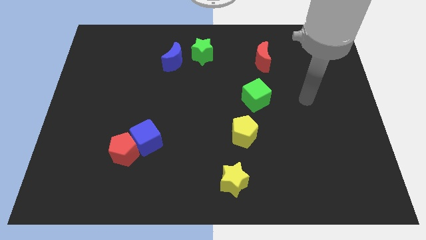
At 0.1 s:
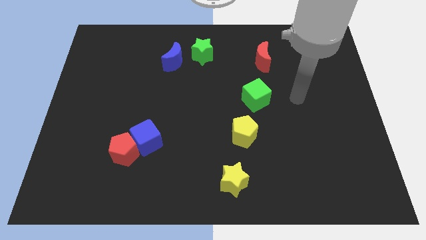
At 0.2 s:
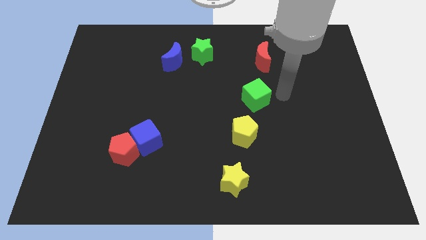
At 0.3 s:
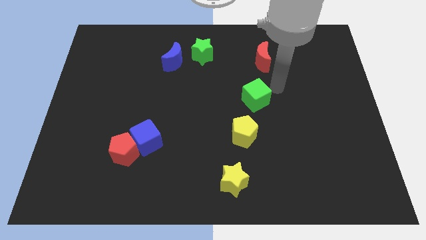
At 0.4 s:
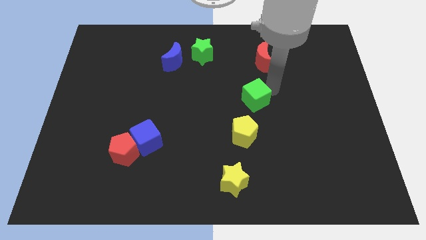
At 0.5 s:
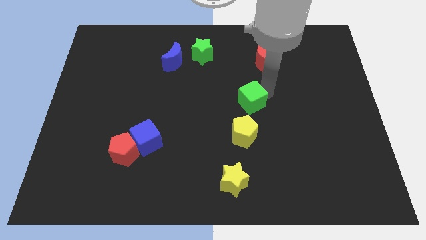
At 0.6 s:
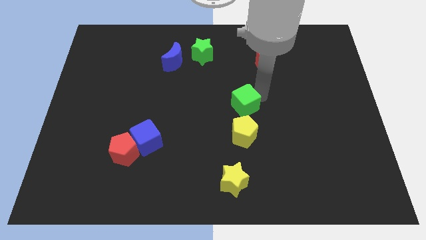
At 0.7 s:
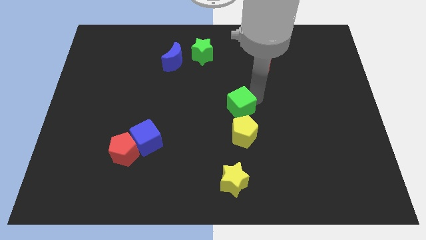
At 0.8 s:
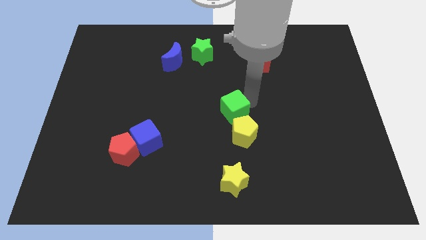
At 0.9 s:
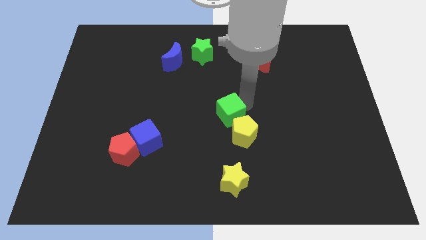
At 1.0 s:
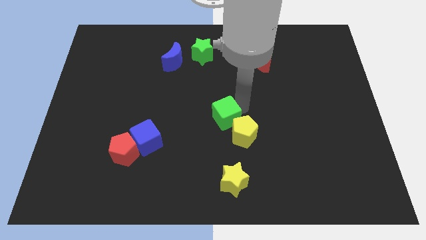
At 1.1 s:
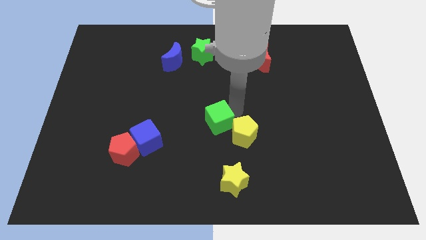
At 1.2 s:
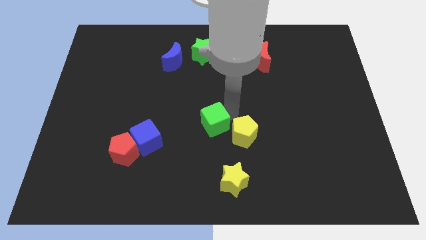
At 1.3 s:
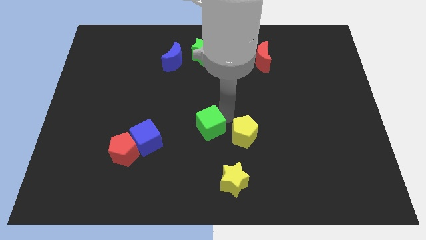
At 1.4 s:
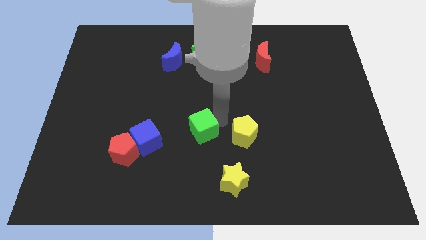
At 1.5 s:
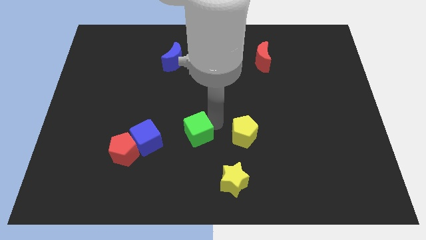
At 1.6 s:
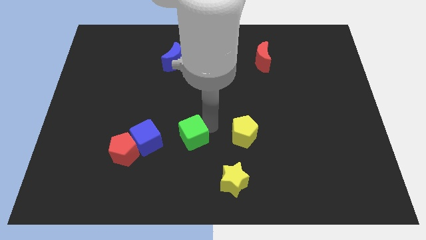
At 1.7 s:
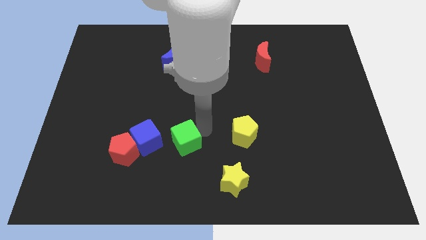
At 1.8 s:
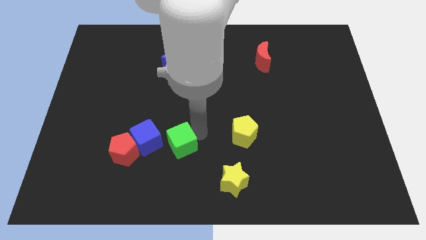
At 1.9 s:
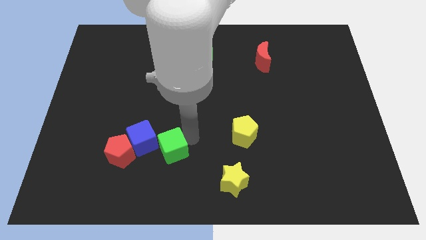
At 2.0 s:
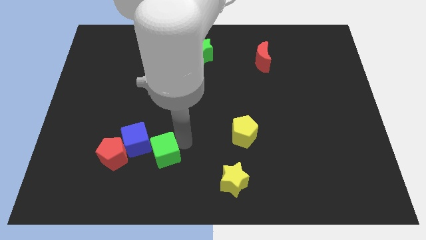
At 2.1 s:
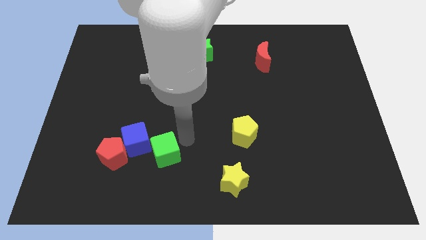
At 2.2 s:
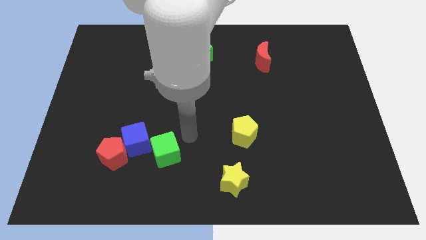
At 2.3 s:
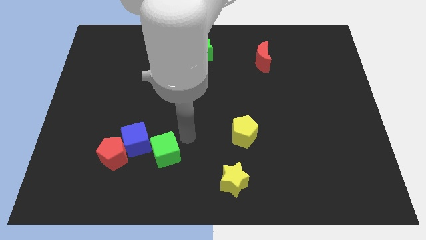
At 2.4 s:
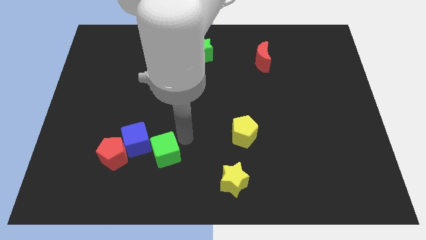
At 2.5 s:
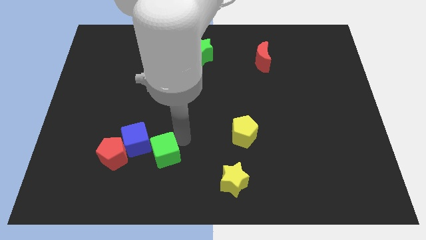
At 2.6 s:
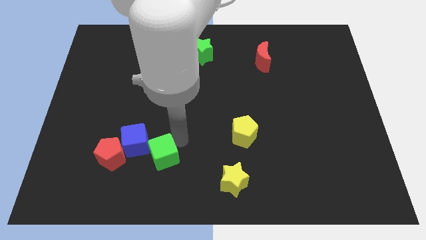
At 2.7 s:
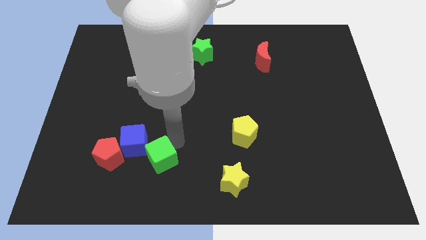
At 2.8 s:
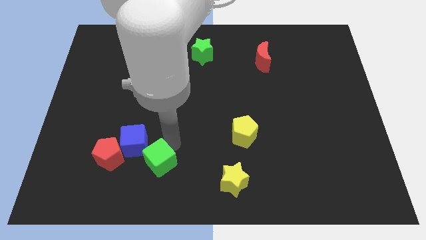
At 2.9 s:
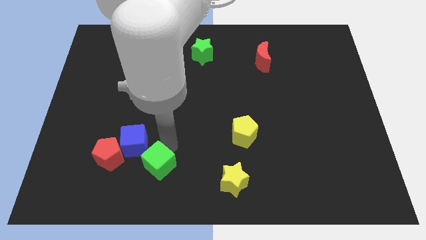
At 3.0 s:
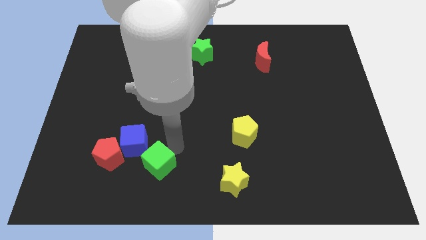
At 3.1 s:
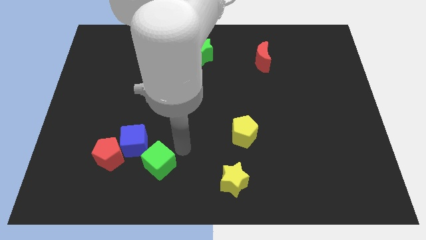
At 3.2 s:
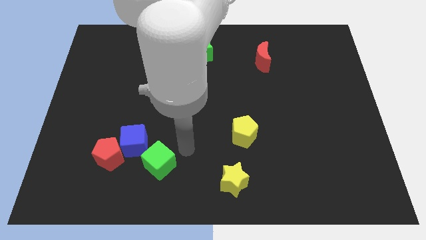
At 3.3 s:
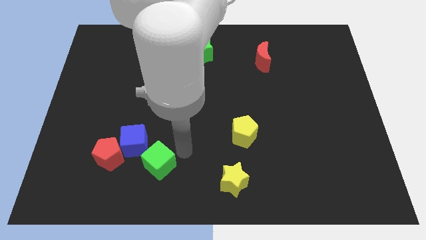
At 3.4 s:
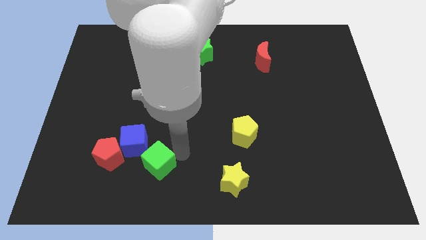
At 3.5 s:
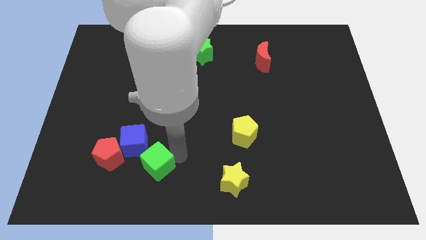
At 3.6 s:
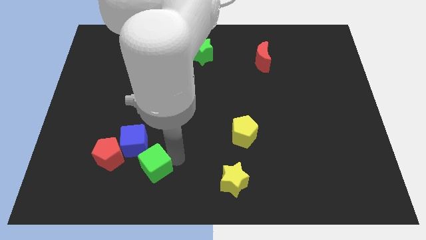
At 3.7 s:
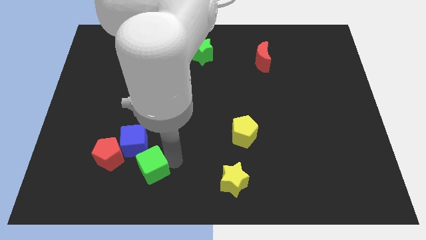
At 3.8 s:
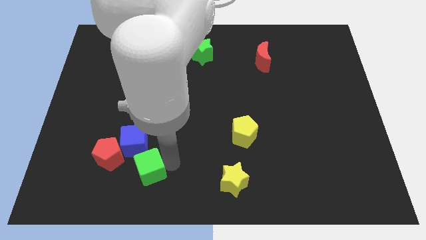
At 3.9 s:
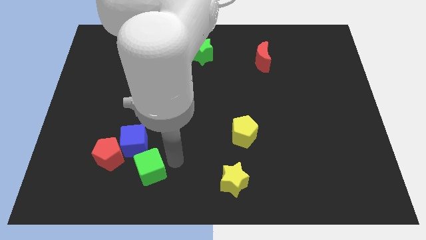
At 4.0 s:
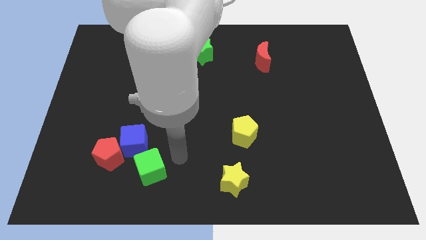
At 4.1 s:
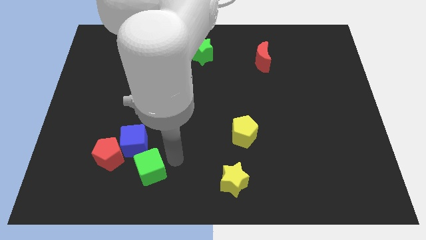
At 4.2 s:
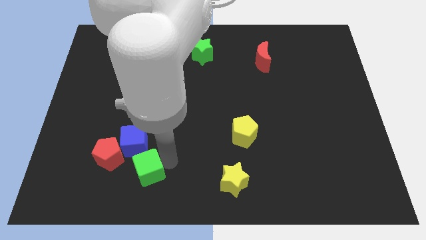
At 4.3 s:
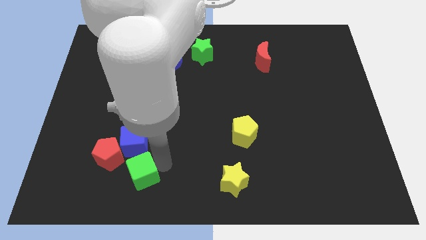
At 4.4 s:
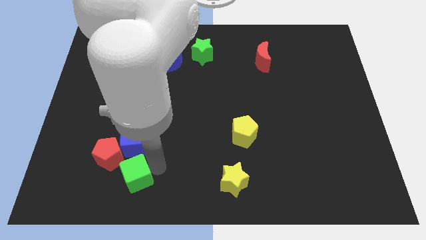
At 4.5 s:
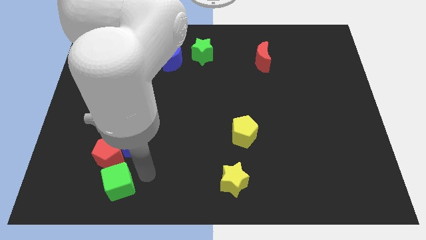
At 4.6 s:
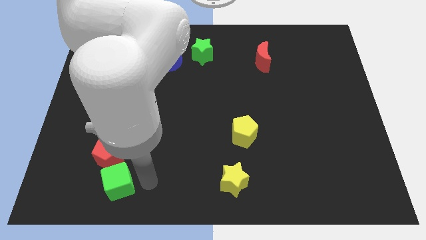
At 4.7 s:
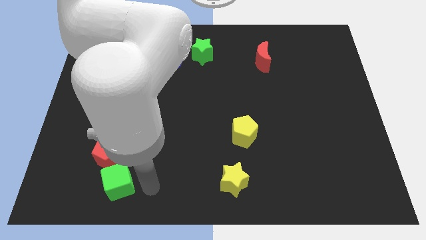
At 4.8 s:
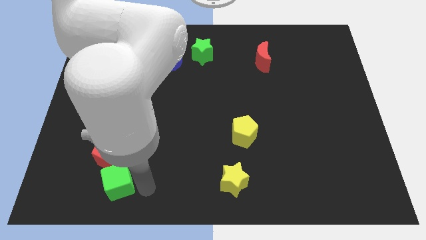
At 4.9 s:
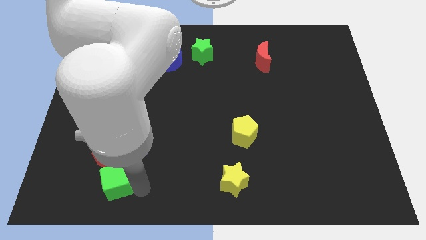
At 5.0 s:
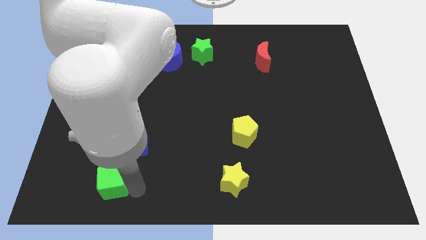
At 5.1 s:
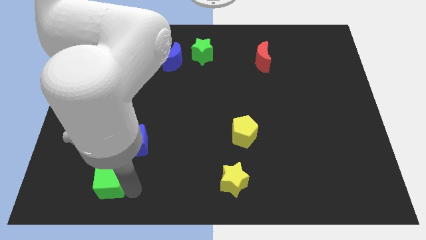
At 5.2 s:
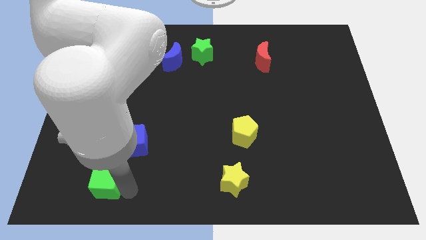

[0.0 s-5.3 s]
put the green cube to the bottom left of the red pentagon

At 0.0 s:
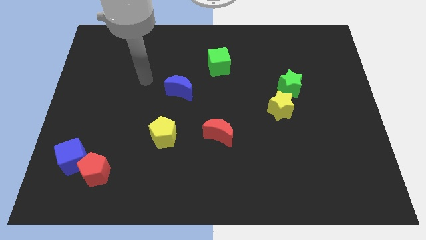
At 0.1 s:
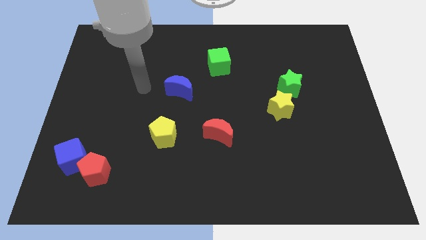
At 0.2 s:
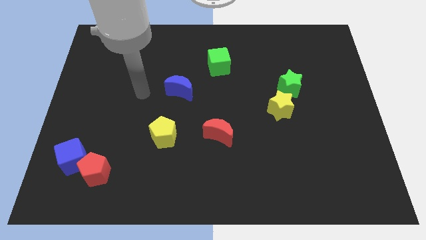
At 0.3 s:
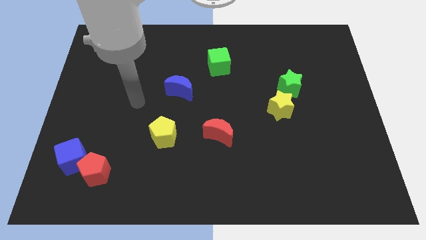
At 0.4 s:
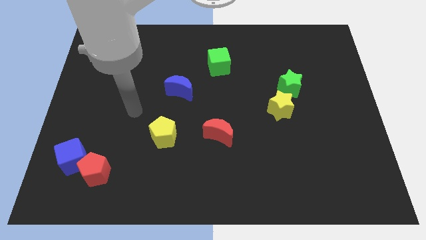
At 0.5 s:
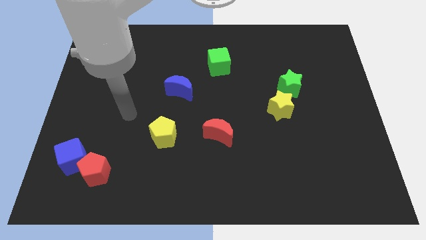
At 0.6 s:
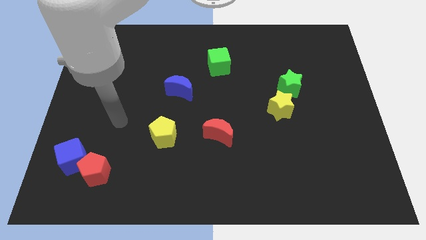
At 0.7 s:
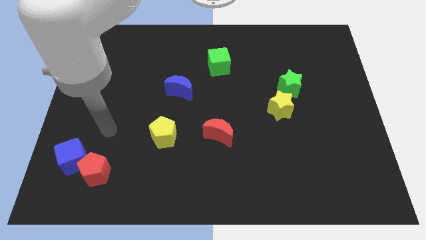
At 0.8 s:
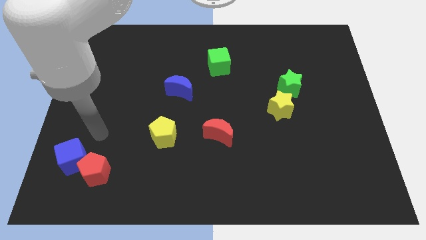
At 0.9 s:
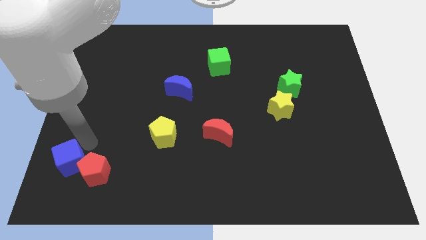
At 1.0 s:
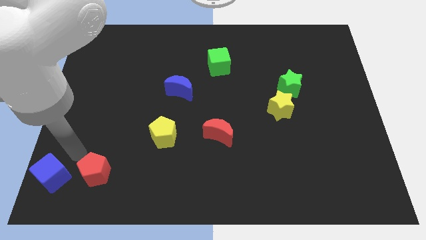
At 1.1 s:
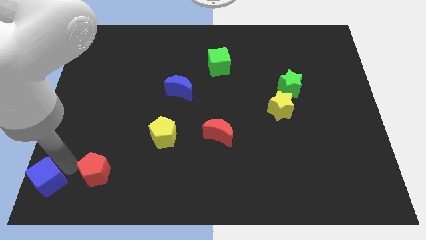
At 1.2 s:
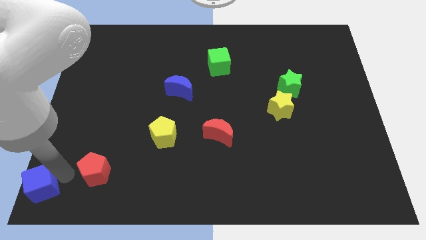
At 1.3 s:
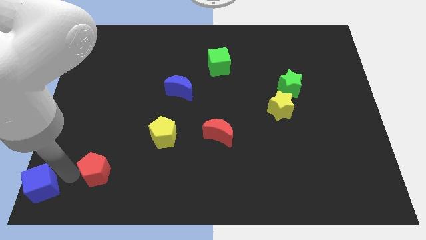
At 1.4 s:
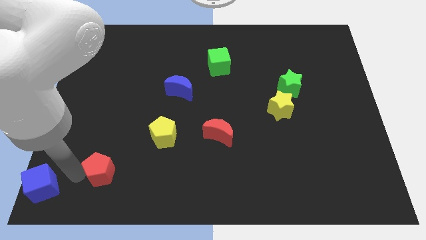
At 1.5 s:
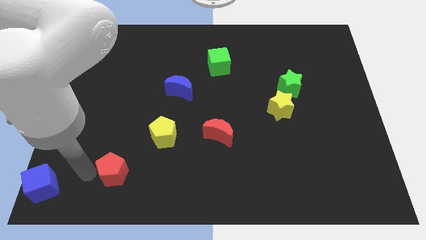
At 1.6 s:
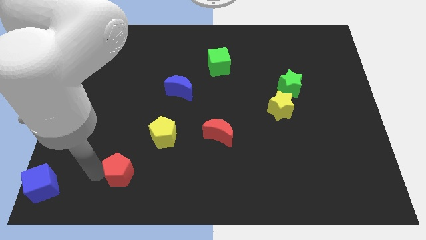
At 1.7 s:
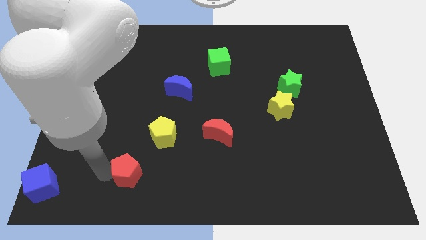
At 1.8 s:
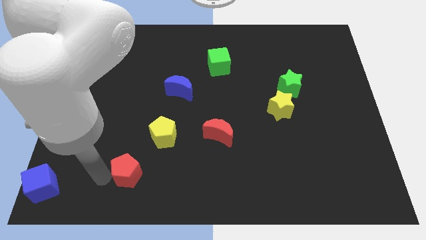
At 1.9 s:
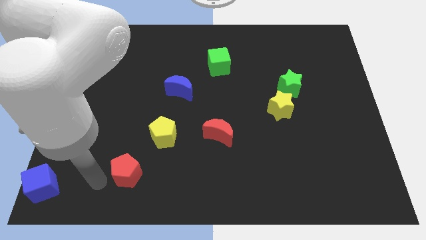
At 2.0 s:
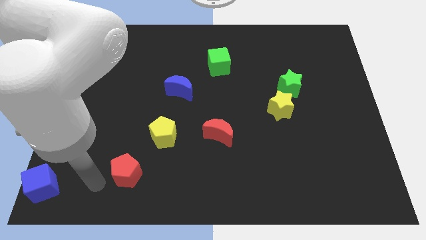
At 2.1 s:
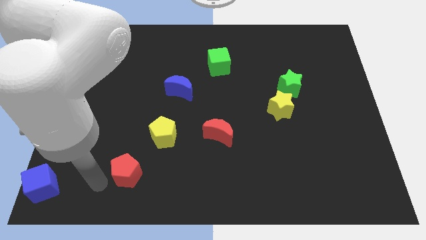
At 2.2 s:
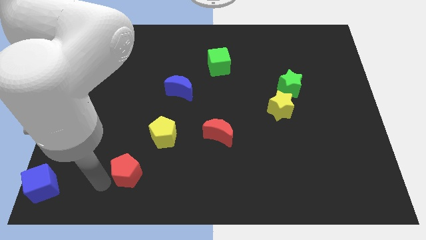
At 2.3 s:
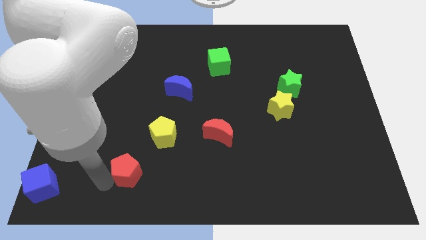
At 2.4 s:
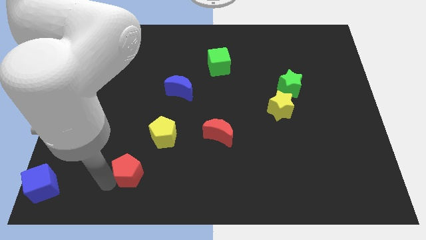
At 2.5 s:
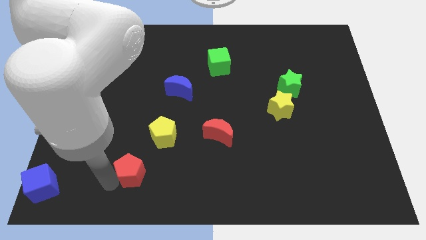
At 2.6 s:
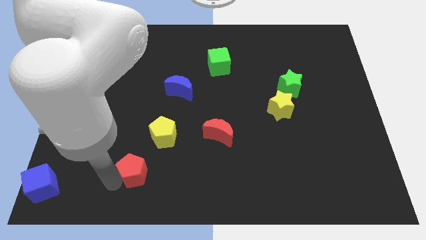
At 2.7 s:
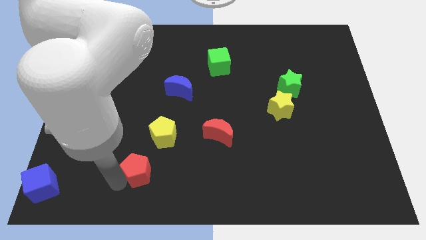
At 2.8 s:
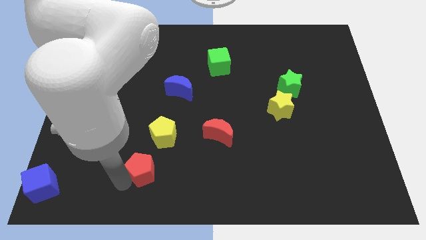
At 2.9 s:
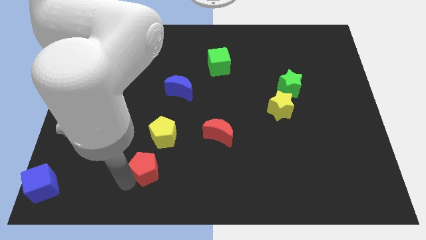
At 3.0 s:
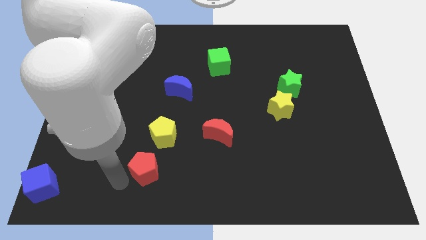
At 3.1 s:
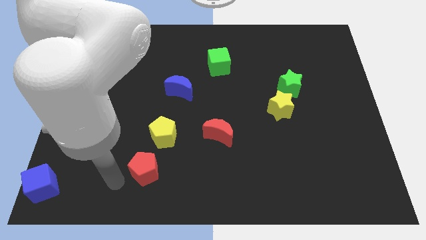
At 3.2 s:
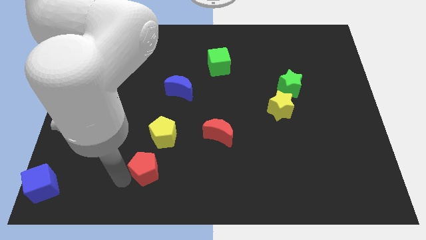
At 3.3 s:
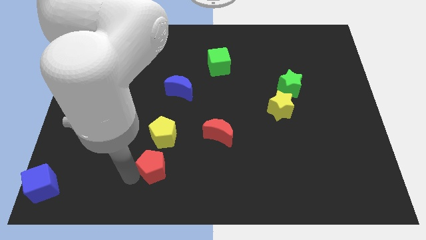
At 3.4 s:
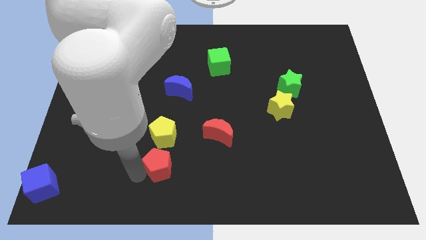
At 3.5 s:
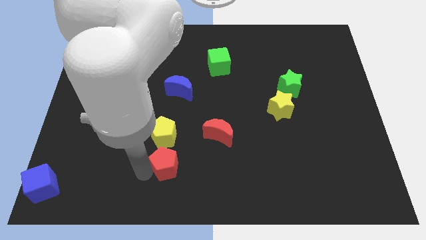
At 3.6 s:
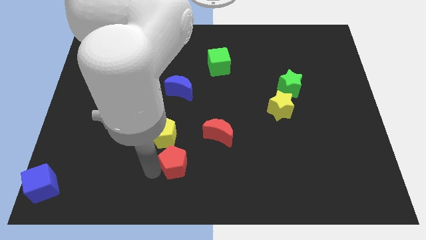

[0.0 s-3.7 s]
slide the red pentagon diagonally down and to the left of the red moon
